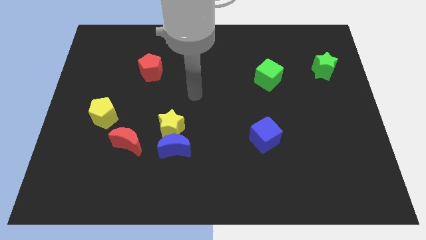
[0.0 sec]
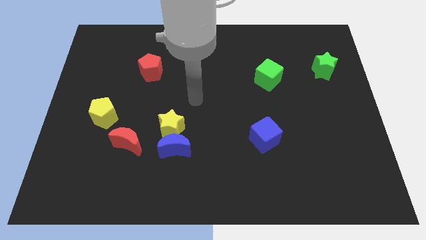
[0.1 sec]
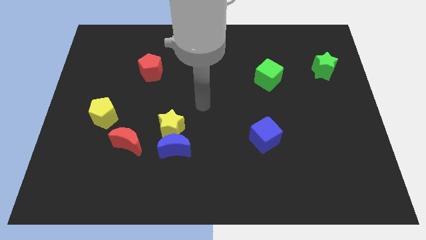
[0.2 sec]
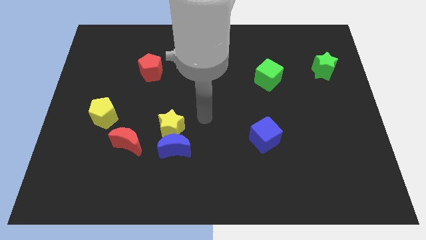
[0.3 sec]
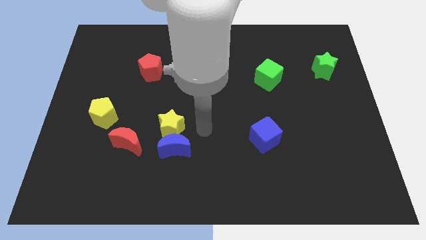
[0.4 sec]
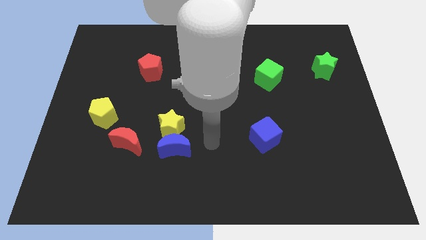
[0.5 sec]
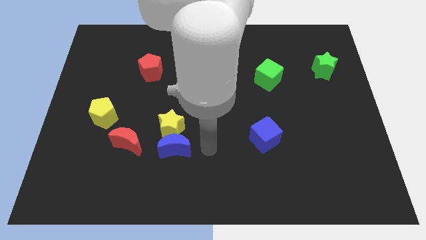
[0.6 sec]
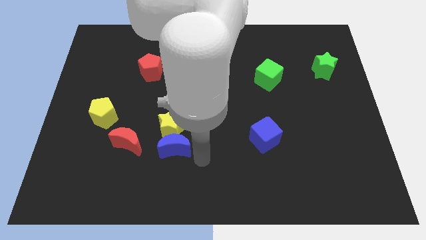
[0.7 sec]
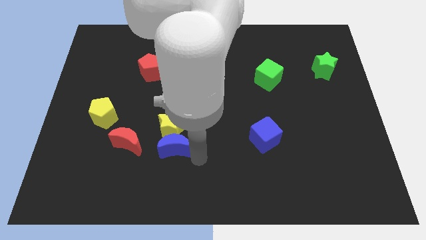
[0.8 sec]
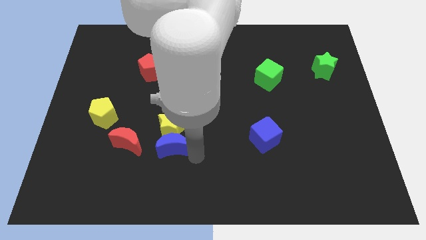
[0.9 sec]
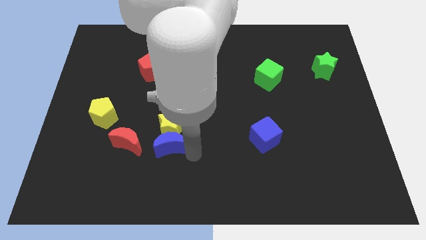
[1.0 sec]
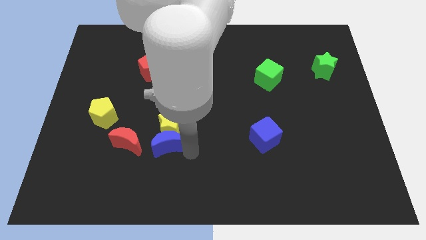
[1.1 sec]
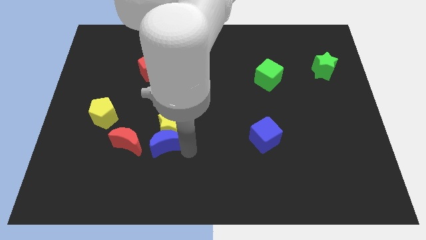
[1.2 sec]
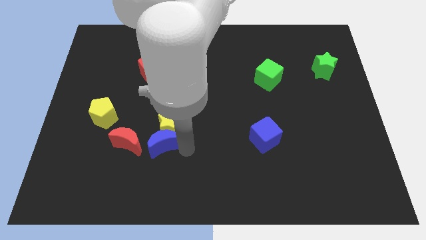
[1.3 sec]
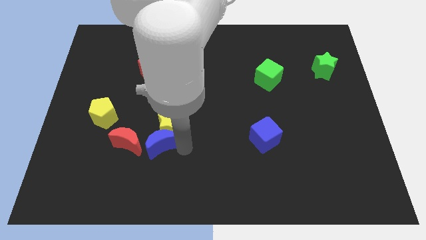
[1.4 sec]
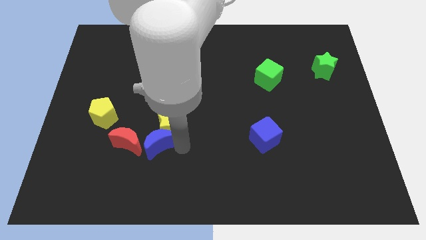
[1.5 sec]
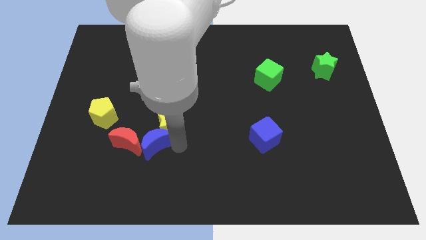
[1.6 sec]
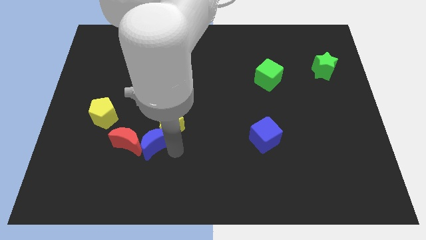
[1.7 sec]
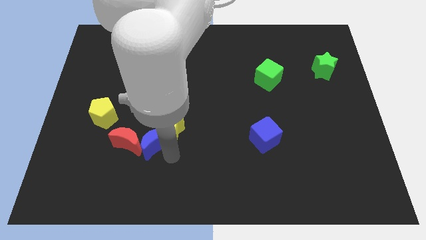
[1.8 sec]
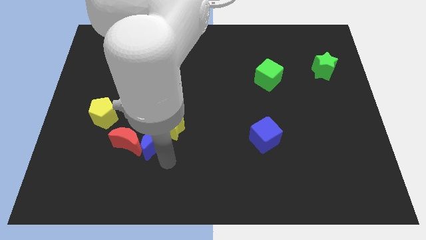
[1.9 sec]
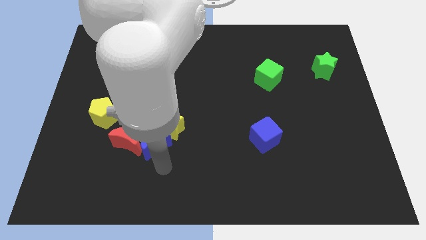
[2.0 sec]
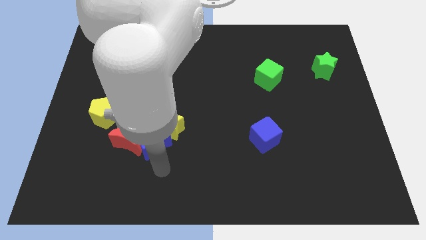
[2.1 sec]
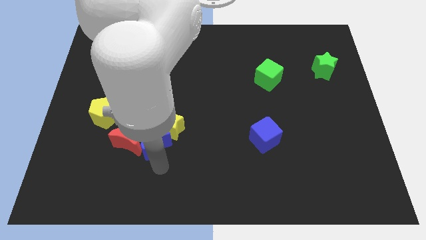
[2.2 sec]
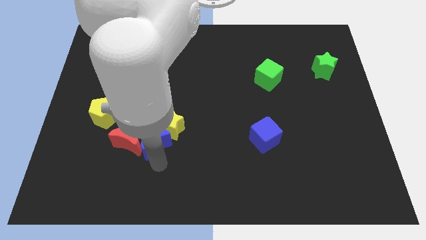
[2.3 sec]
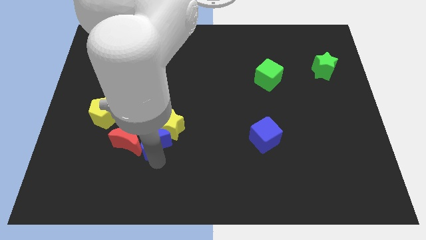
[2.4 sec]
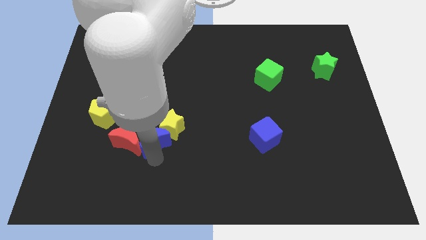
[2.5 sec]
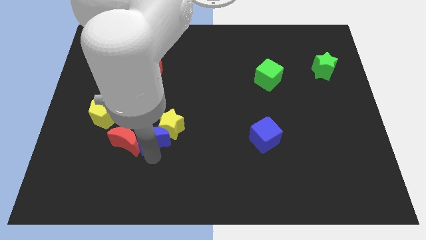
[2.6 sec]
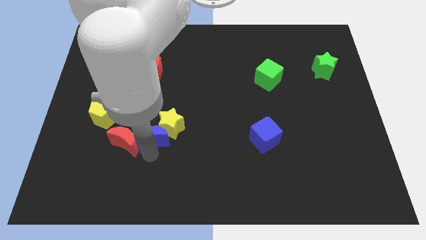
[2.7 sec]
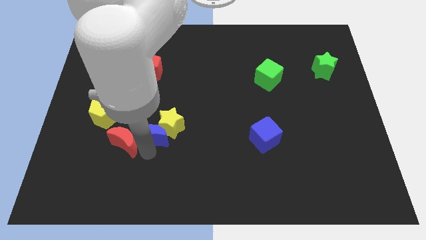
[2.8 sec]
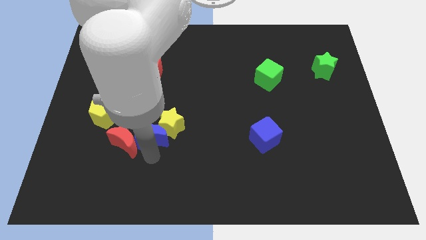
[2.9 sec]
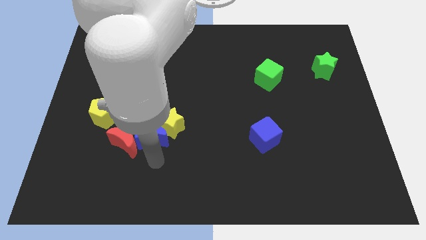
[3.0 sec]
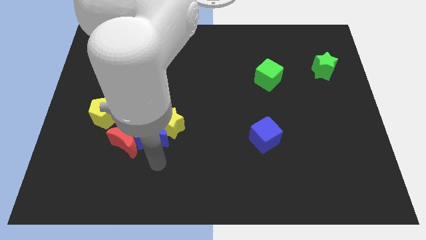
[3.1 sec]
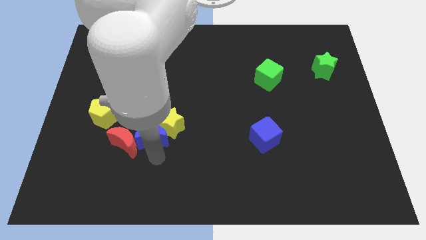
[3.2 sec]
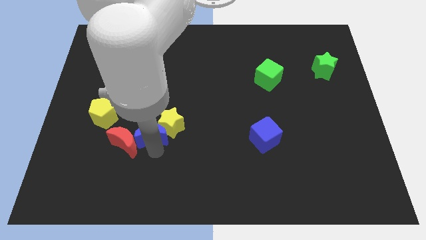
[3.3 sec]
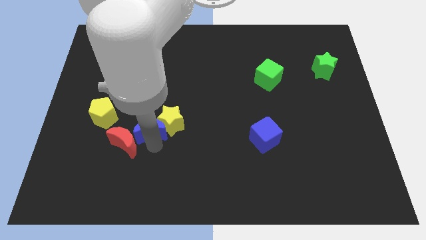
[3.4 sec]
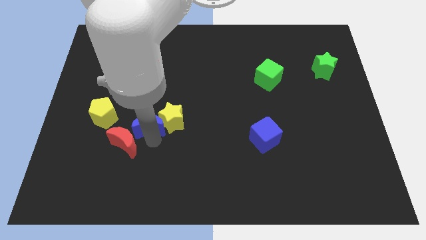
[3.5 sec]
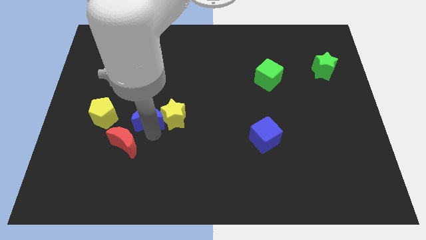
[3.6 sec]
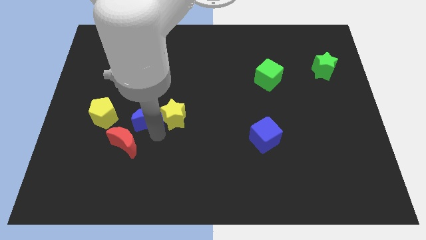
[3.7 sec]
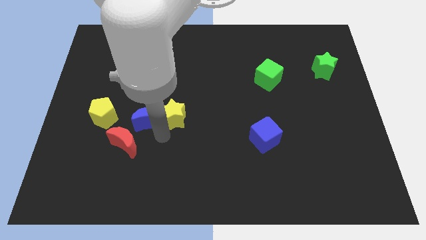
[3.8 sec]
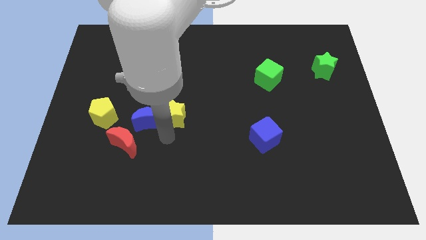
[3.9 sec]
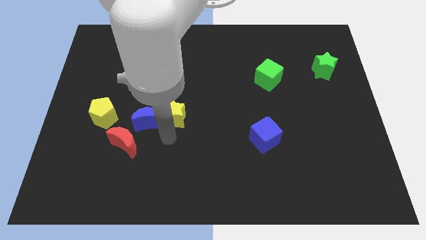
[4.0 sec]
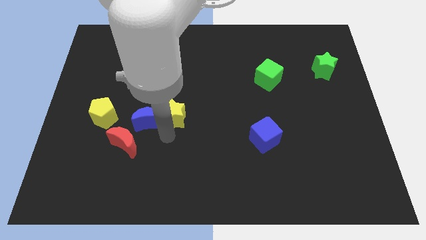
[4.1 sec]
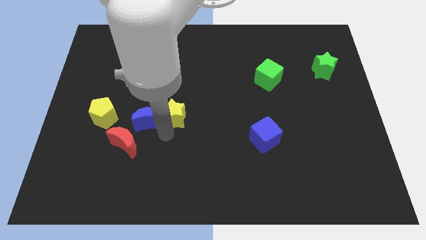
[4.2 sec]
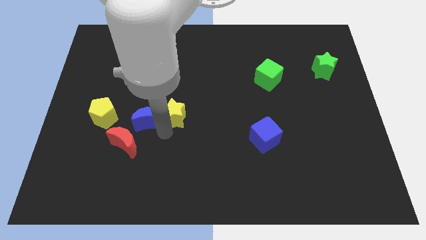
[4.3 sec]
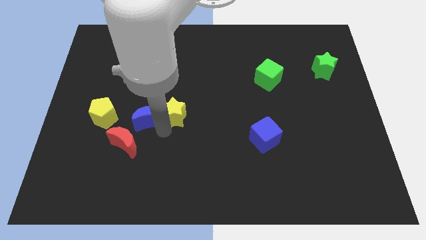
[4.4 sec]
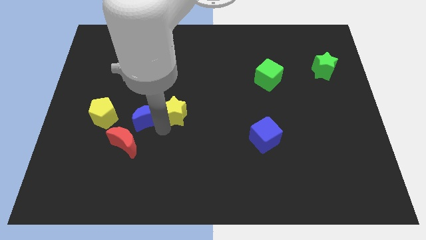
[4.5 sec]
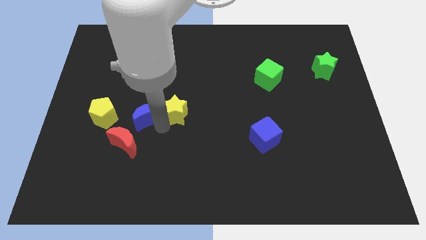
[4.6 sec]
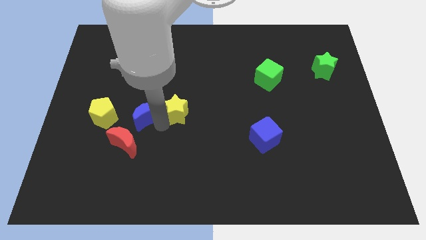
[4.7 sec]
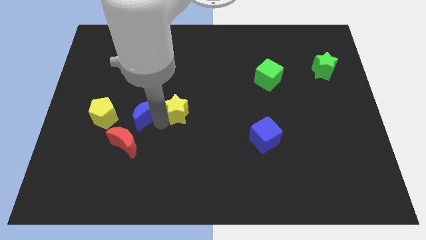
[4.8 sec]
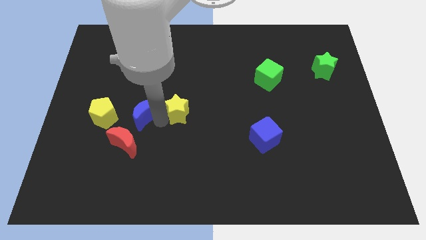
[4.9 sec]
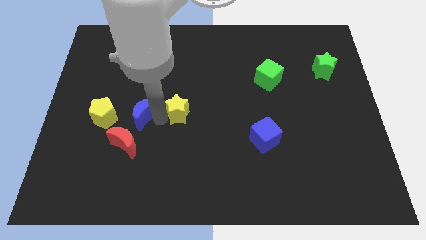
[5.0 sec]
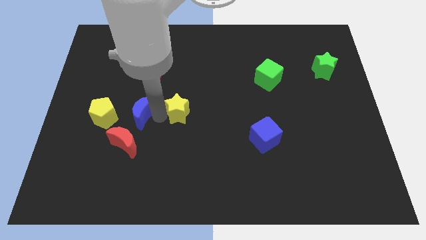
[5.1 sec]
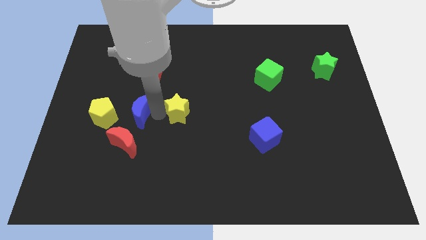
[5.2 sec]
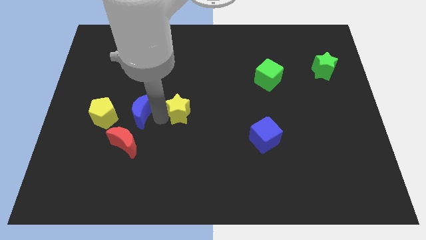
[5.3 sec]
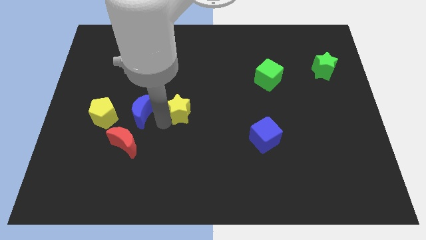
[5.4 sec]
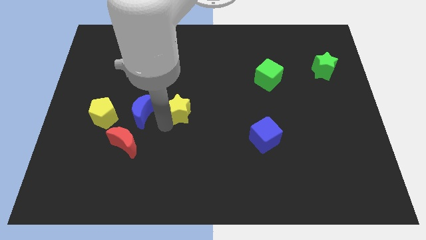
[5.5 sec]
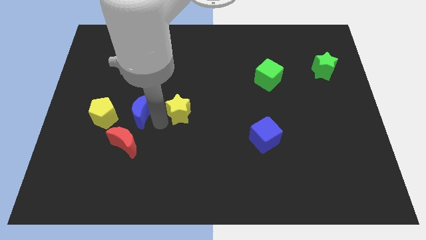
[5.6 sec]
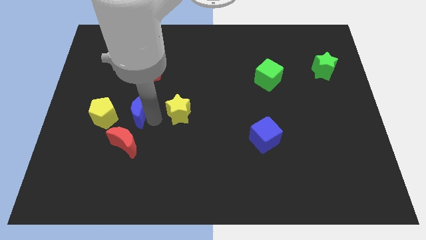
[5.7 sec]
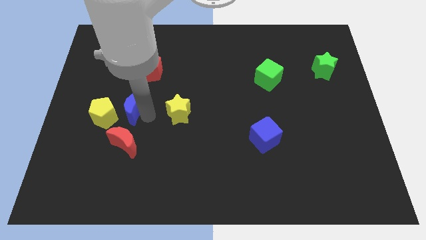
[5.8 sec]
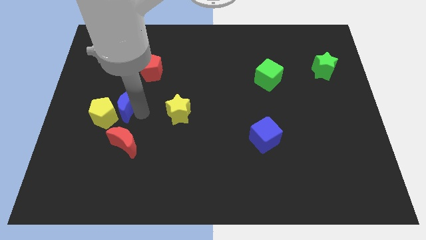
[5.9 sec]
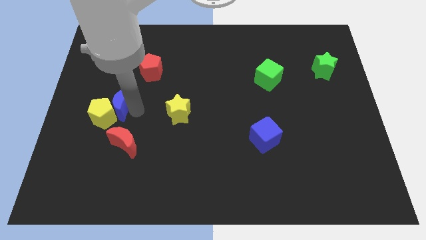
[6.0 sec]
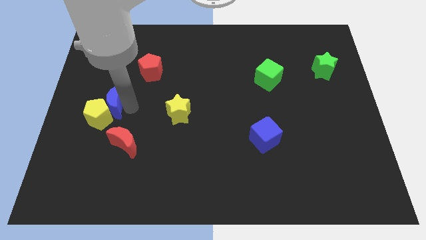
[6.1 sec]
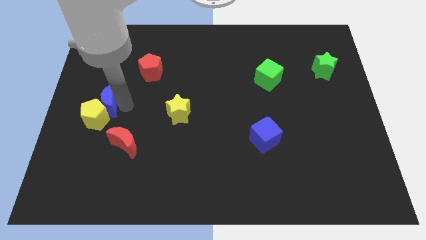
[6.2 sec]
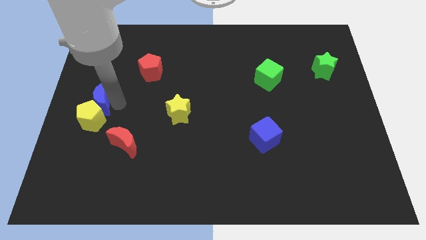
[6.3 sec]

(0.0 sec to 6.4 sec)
push the blue moon to the left side

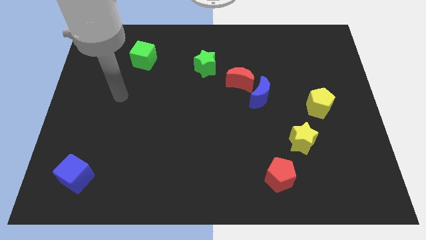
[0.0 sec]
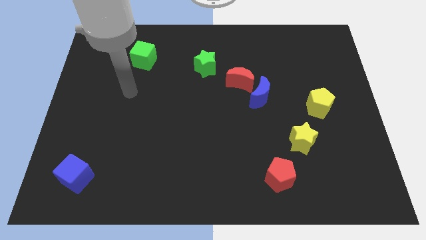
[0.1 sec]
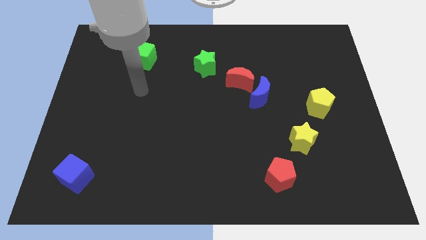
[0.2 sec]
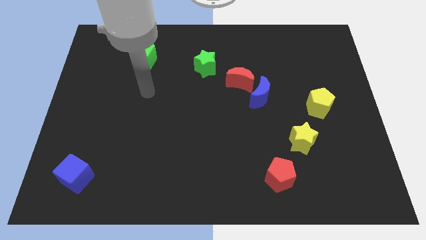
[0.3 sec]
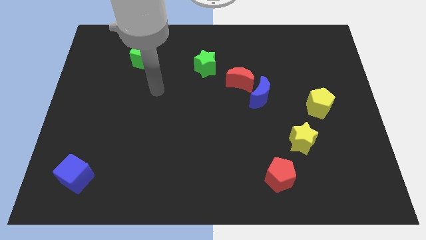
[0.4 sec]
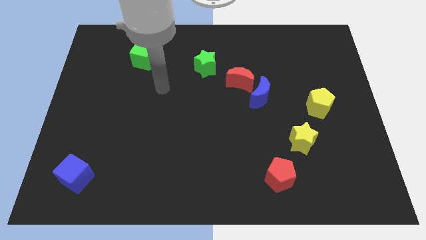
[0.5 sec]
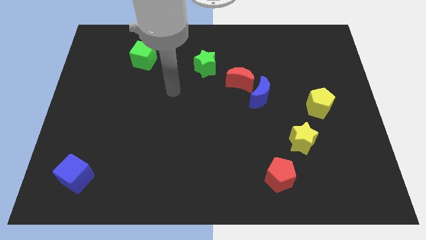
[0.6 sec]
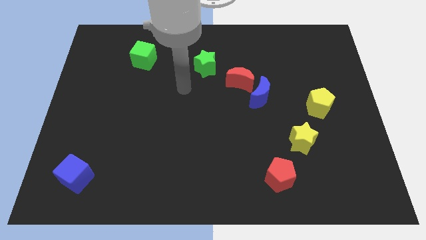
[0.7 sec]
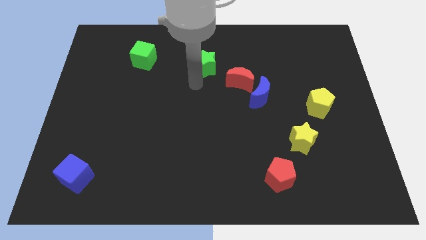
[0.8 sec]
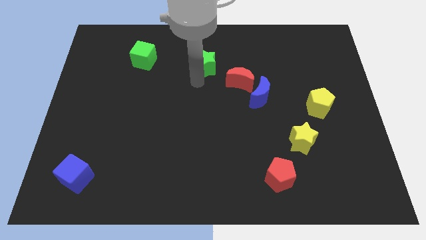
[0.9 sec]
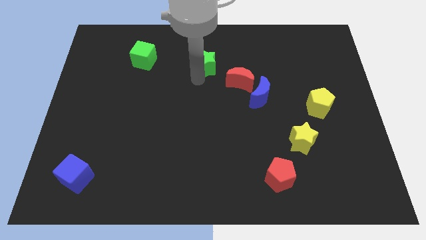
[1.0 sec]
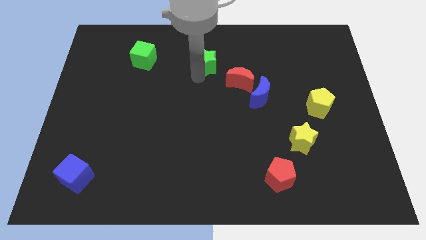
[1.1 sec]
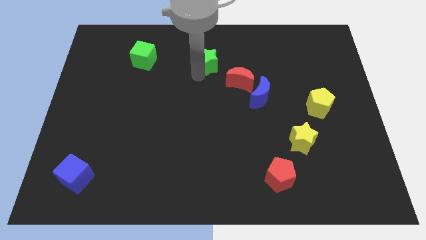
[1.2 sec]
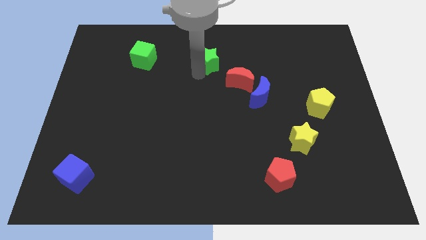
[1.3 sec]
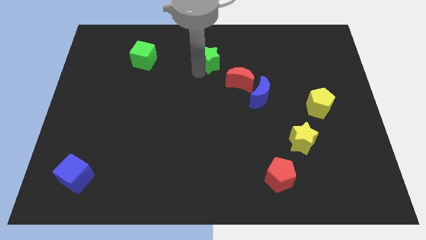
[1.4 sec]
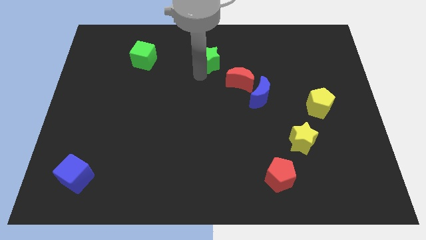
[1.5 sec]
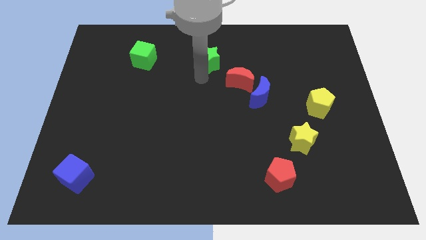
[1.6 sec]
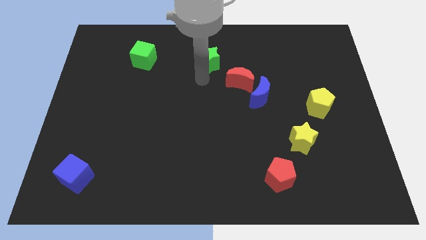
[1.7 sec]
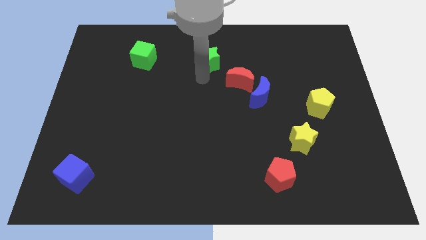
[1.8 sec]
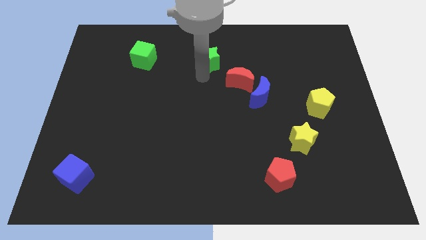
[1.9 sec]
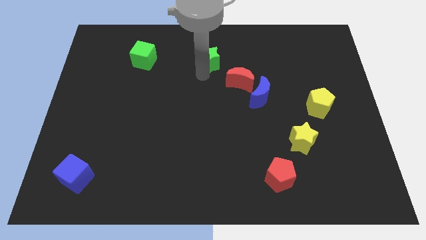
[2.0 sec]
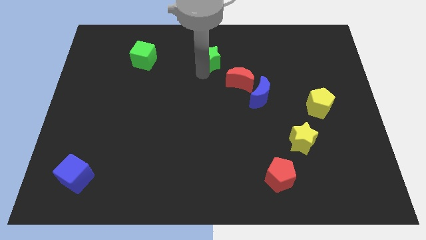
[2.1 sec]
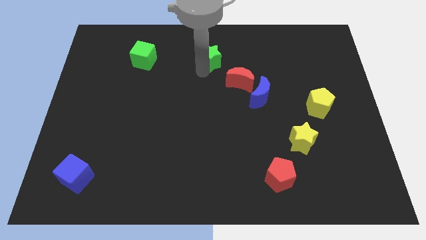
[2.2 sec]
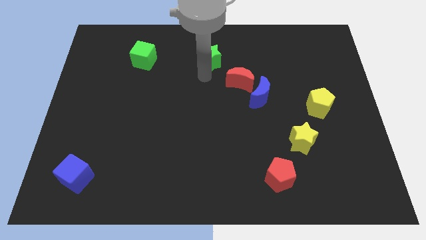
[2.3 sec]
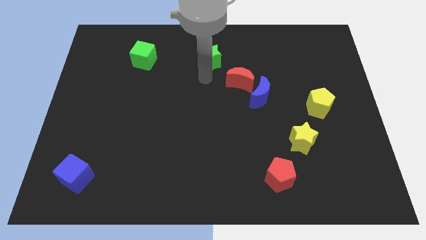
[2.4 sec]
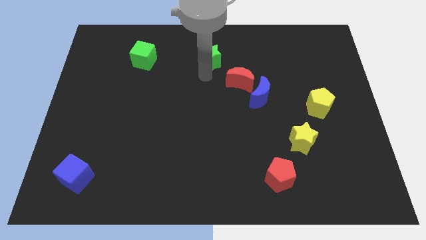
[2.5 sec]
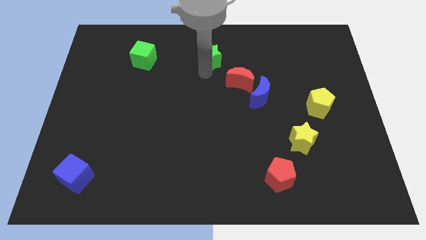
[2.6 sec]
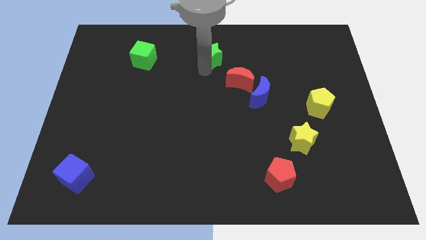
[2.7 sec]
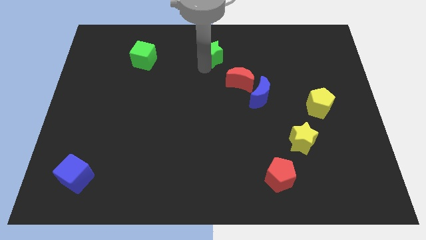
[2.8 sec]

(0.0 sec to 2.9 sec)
put the green star to the top side
